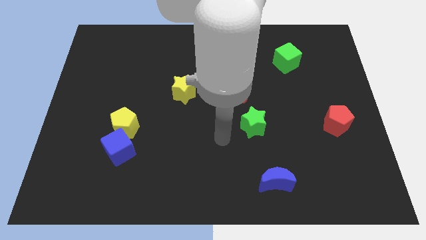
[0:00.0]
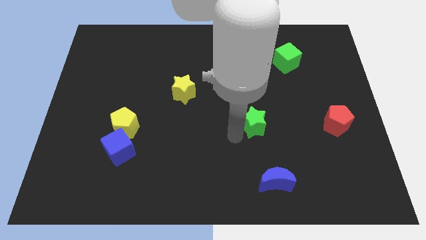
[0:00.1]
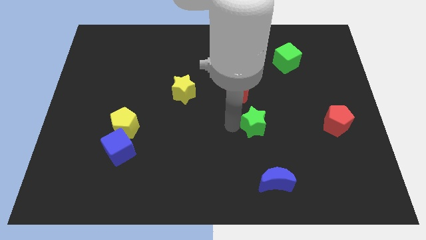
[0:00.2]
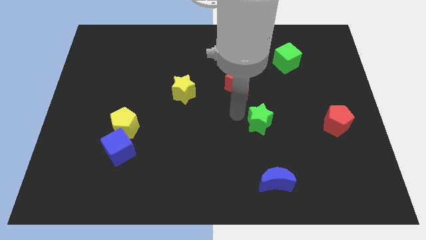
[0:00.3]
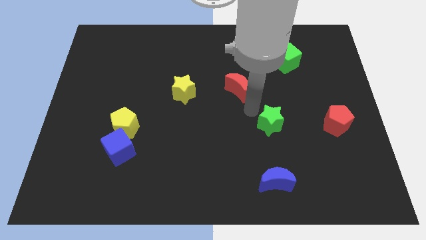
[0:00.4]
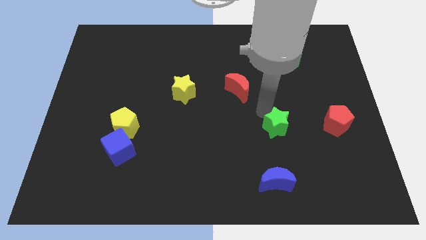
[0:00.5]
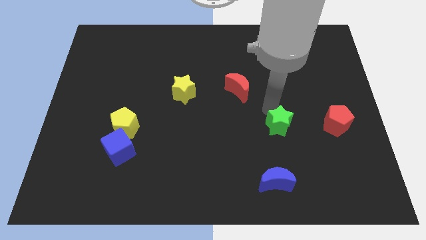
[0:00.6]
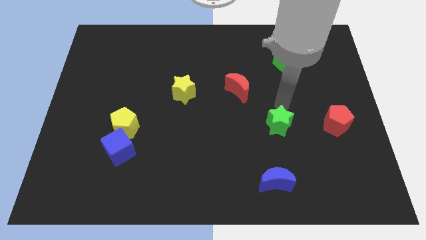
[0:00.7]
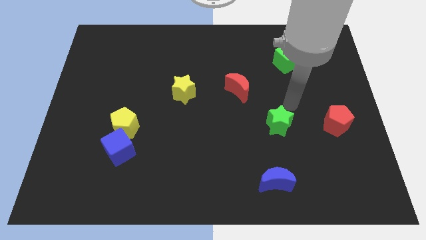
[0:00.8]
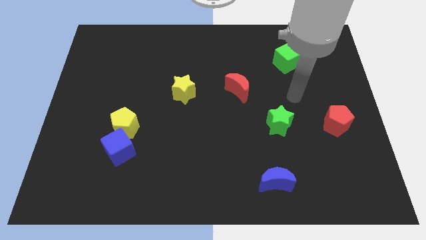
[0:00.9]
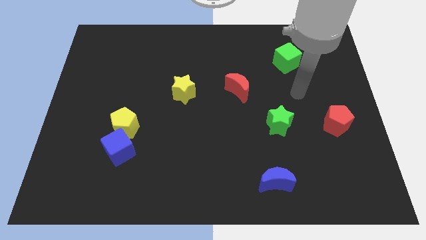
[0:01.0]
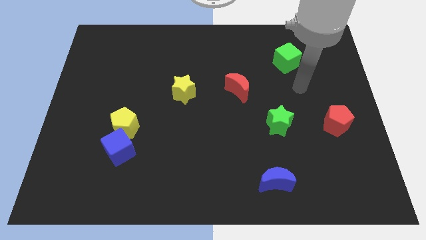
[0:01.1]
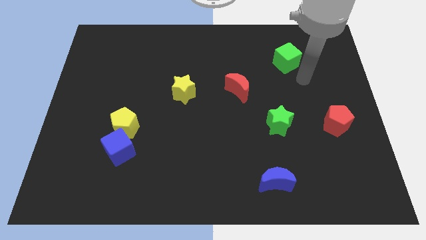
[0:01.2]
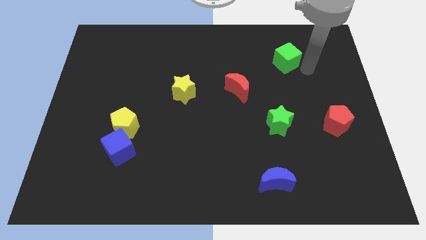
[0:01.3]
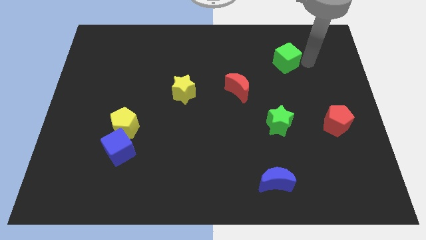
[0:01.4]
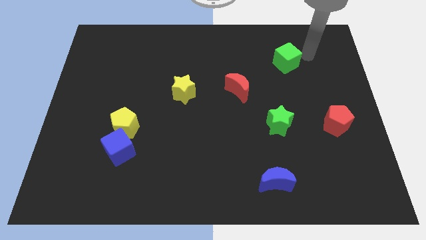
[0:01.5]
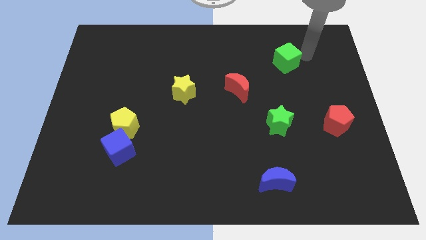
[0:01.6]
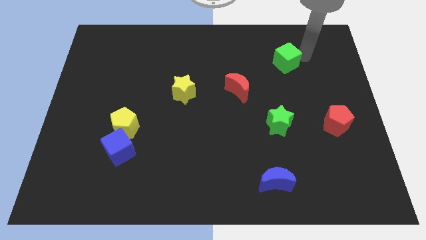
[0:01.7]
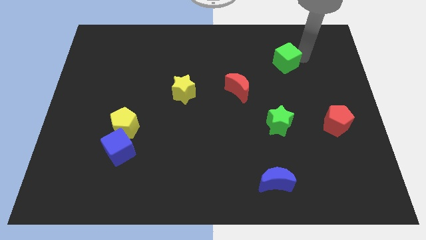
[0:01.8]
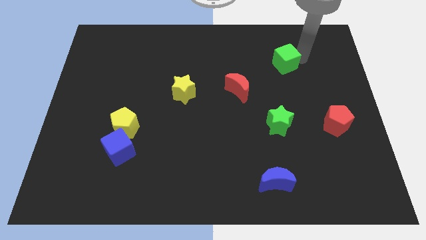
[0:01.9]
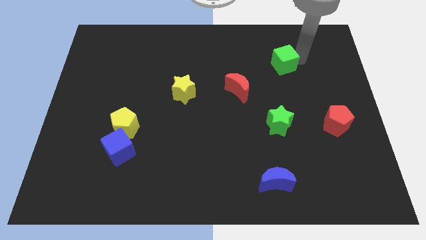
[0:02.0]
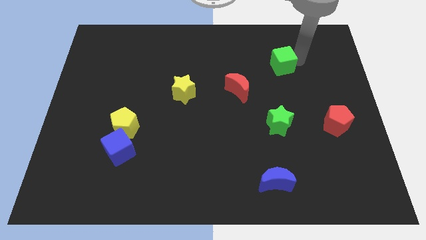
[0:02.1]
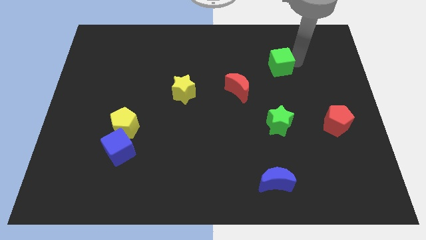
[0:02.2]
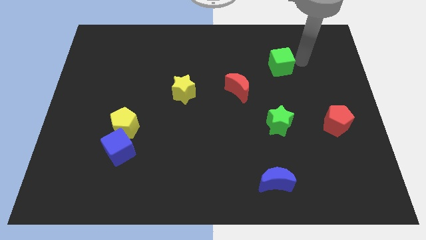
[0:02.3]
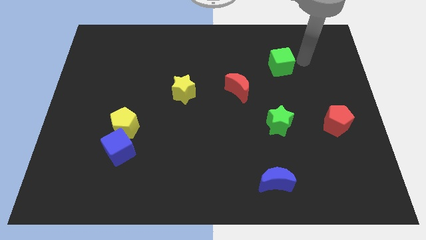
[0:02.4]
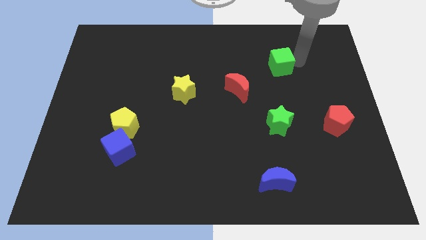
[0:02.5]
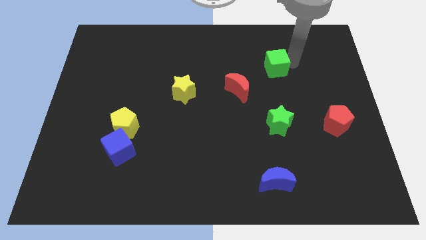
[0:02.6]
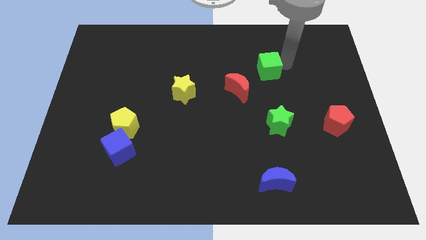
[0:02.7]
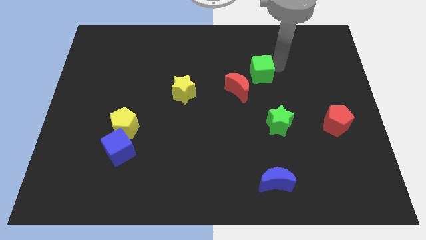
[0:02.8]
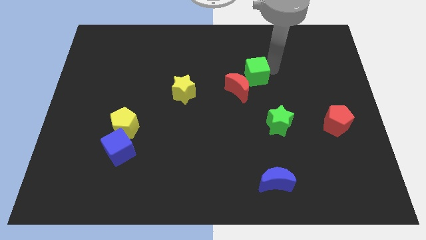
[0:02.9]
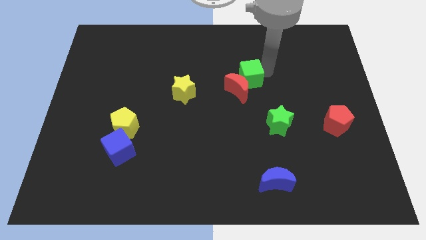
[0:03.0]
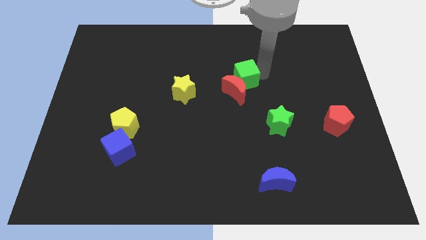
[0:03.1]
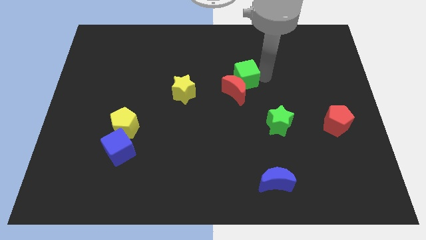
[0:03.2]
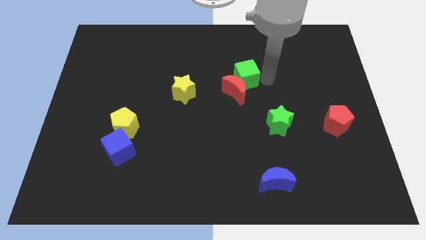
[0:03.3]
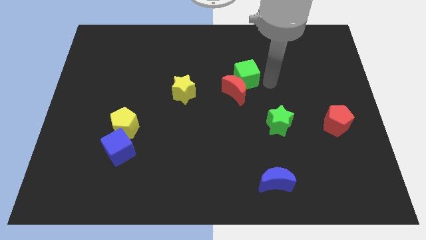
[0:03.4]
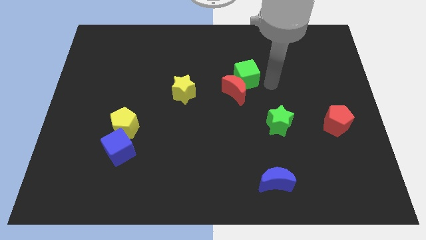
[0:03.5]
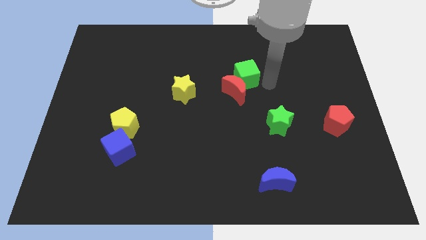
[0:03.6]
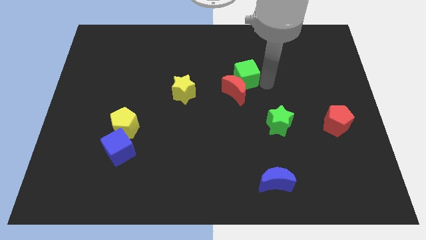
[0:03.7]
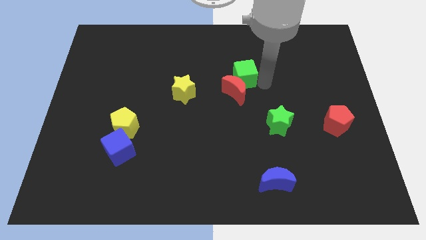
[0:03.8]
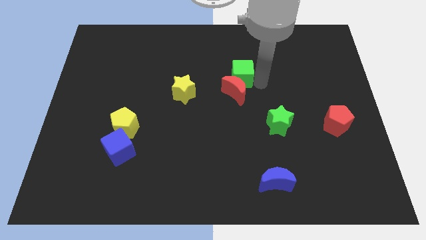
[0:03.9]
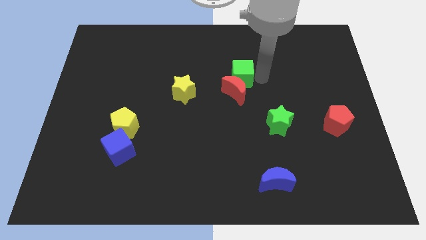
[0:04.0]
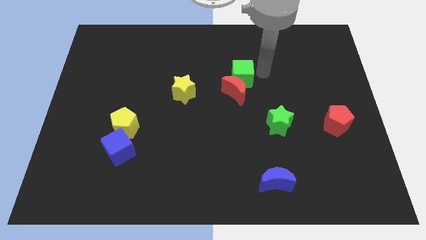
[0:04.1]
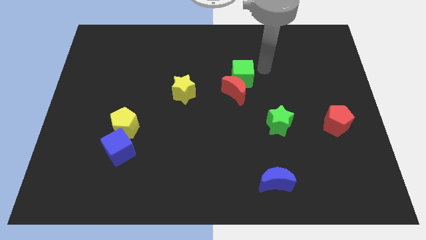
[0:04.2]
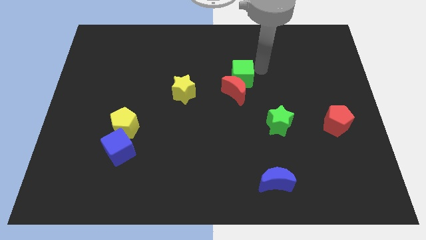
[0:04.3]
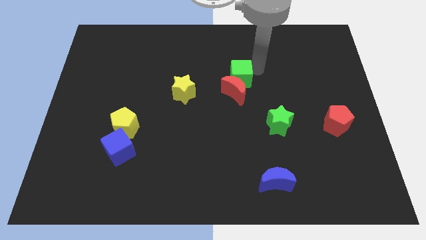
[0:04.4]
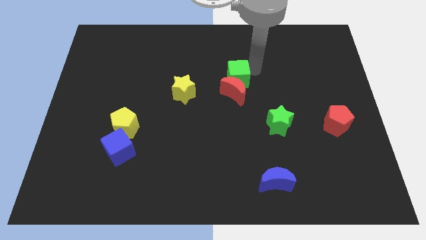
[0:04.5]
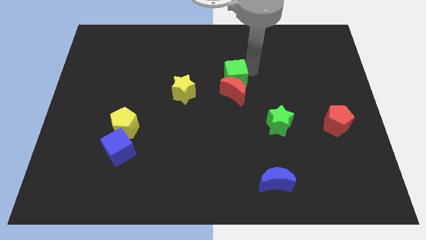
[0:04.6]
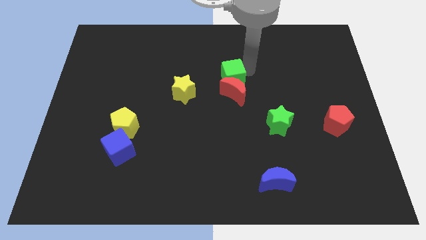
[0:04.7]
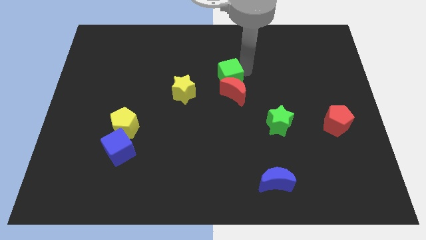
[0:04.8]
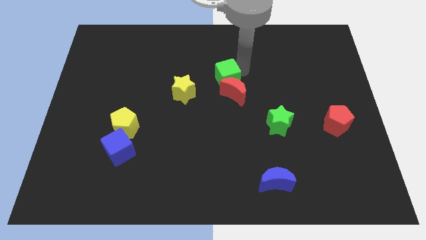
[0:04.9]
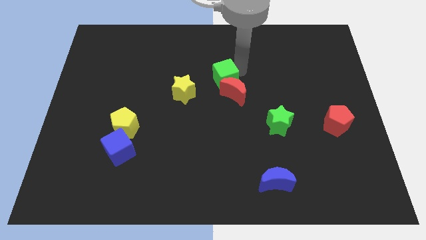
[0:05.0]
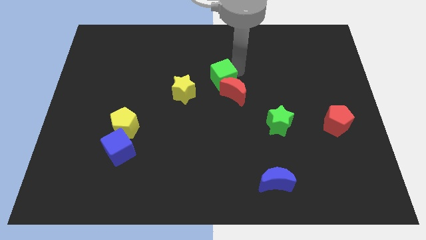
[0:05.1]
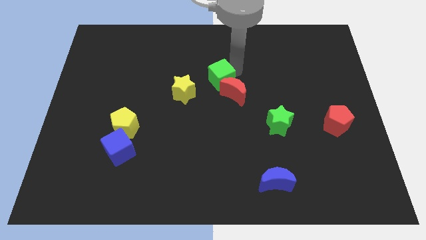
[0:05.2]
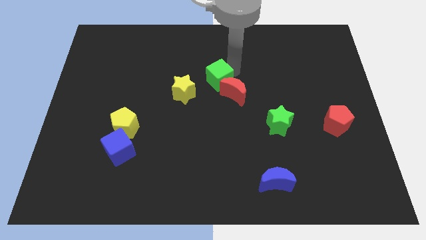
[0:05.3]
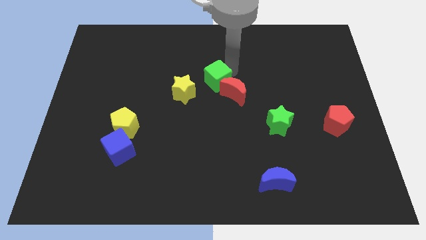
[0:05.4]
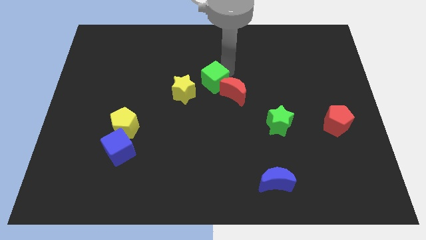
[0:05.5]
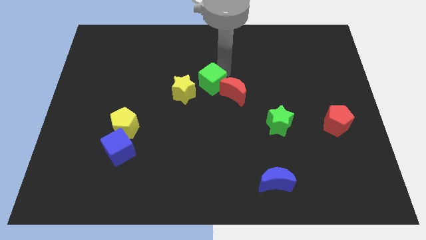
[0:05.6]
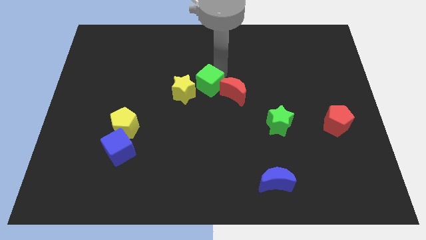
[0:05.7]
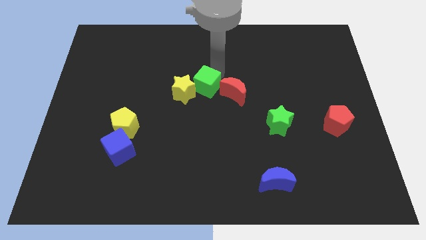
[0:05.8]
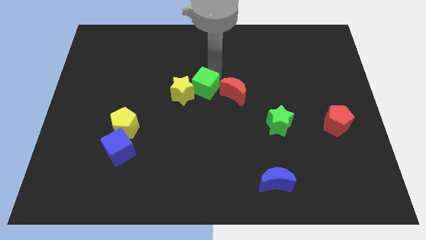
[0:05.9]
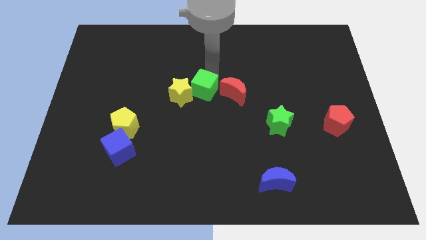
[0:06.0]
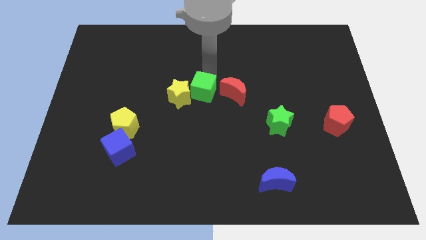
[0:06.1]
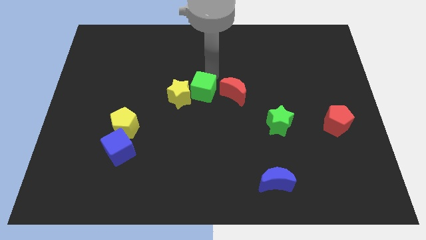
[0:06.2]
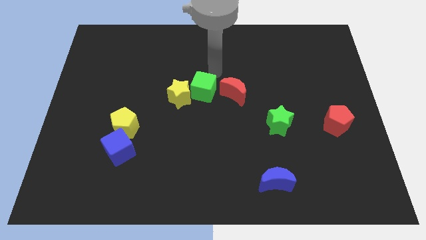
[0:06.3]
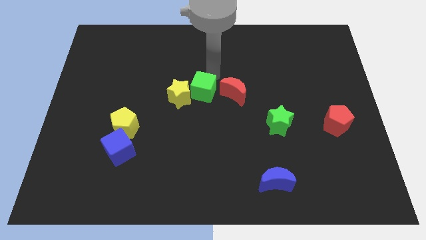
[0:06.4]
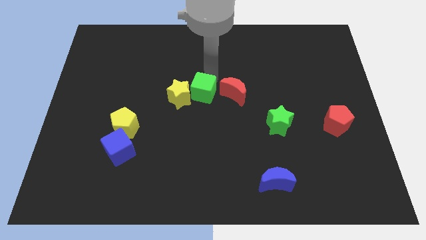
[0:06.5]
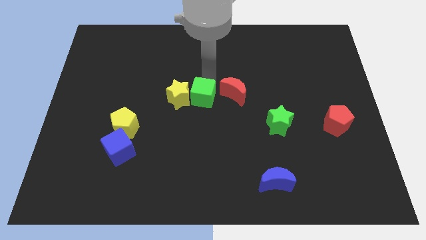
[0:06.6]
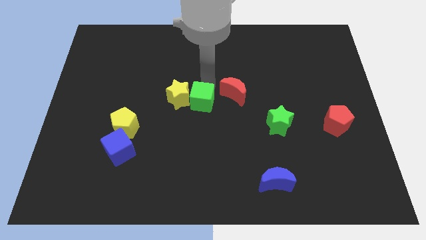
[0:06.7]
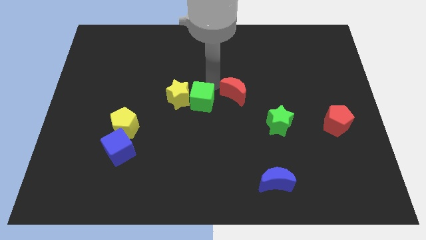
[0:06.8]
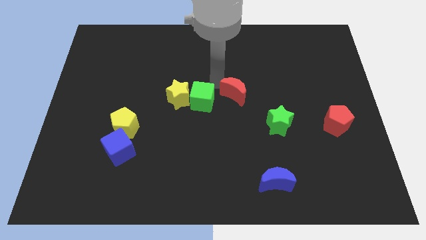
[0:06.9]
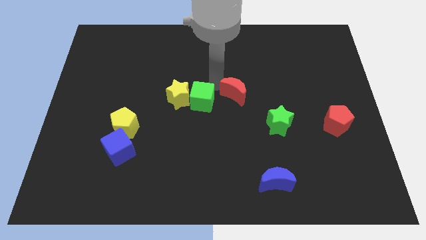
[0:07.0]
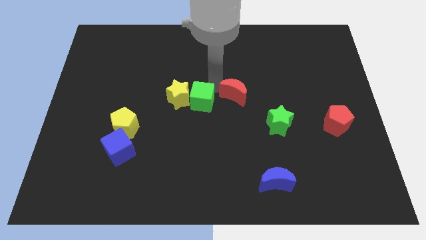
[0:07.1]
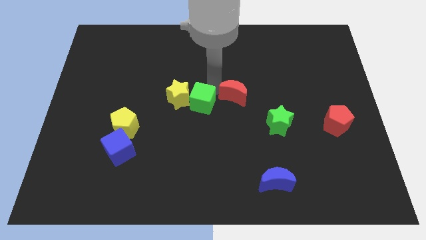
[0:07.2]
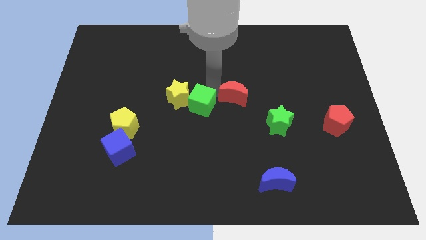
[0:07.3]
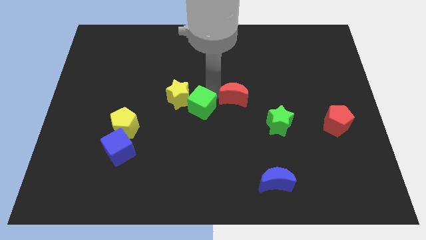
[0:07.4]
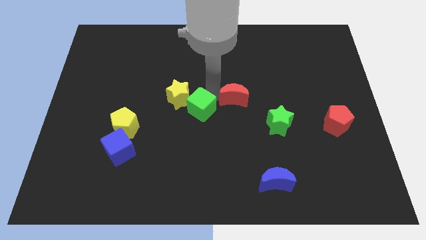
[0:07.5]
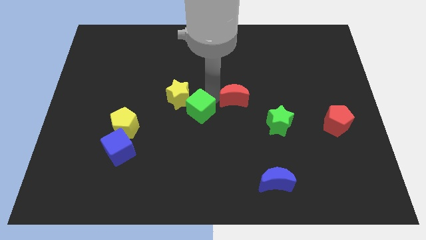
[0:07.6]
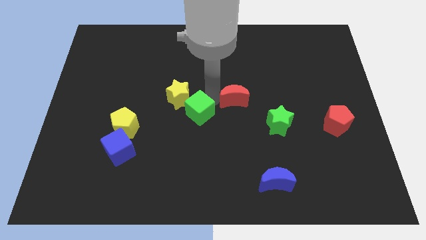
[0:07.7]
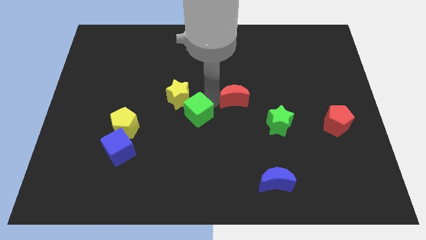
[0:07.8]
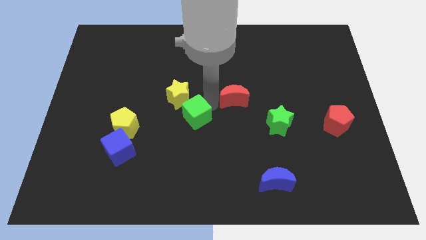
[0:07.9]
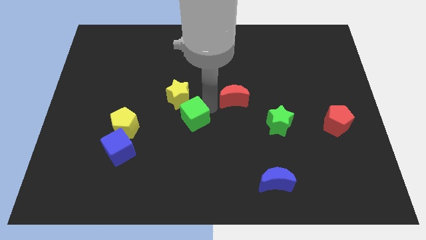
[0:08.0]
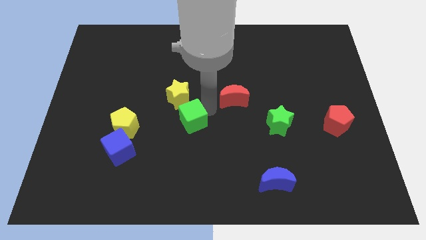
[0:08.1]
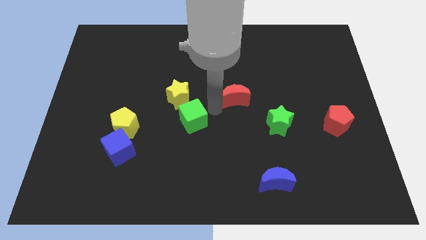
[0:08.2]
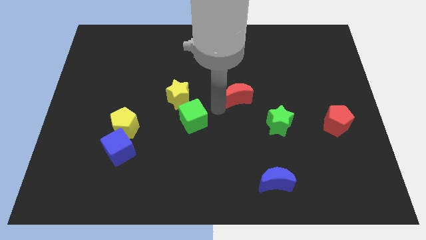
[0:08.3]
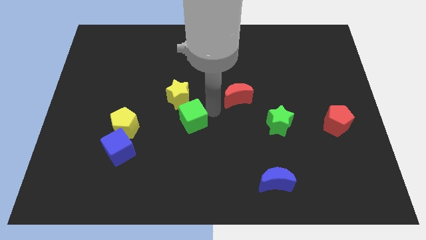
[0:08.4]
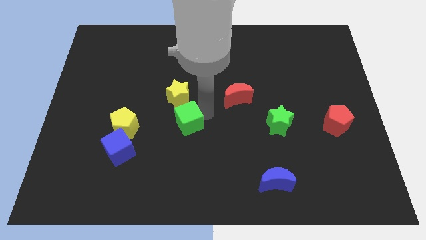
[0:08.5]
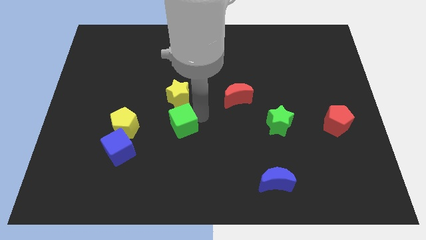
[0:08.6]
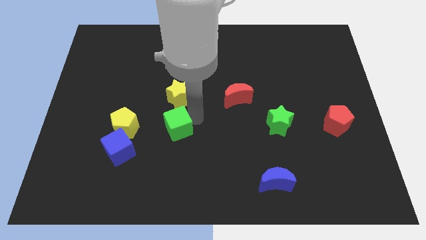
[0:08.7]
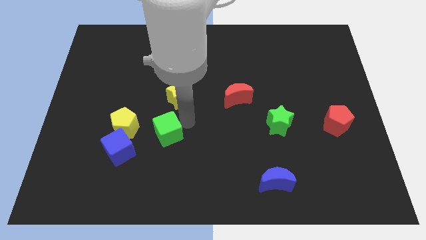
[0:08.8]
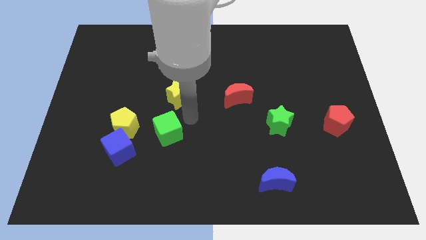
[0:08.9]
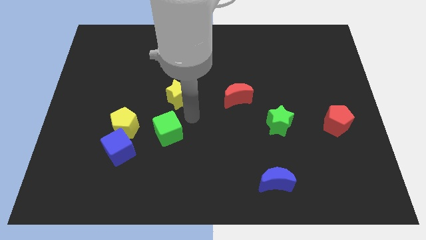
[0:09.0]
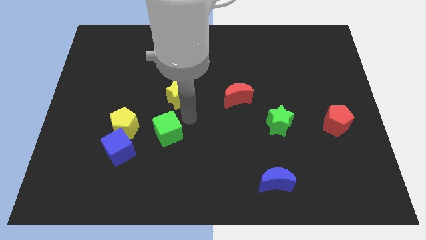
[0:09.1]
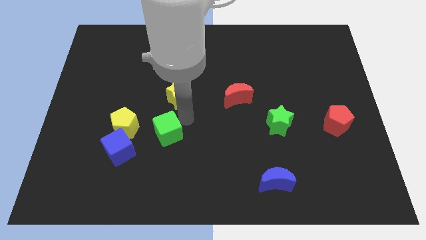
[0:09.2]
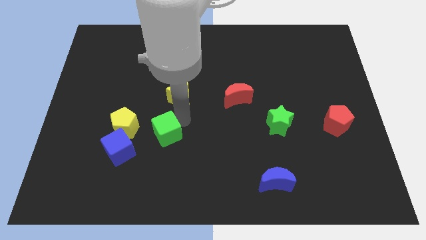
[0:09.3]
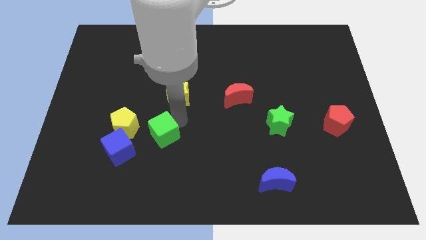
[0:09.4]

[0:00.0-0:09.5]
push the green cube to the bottom right side of the yellow pentagon
